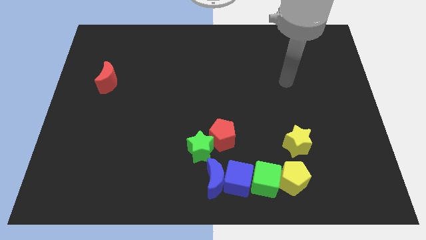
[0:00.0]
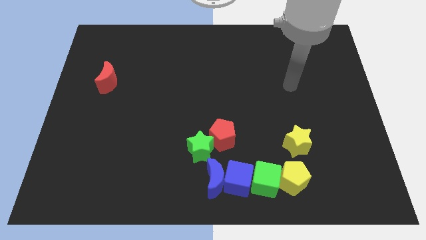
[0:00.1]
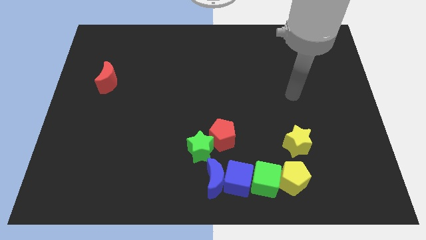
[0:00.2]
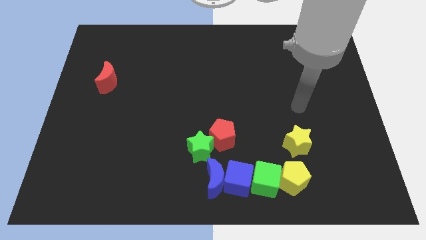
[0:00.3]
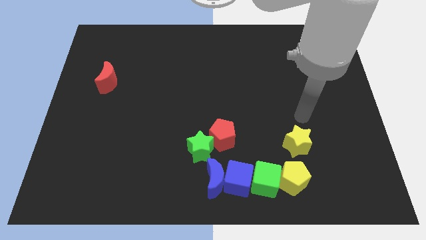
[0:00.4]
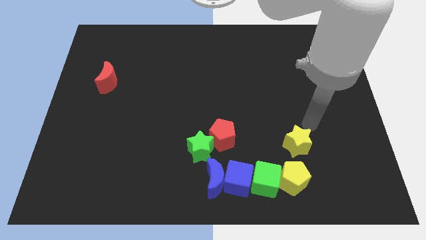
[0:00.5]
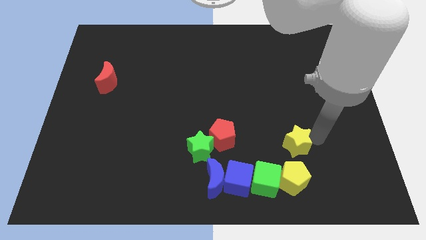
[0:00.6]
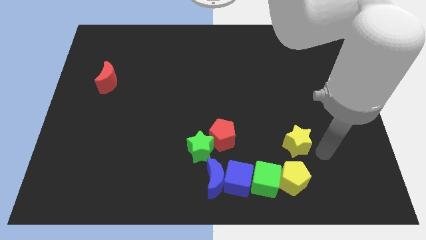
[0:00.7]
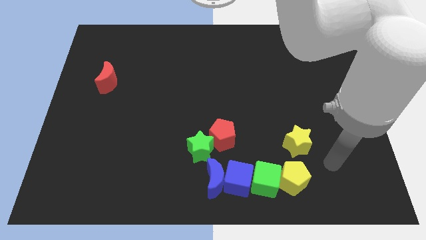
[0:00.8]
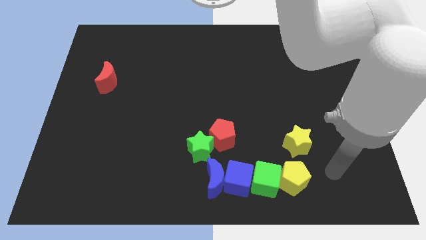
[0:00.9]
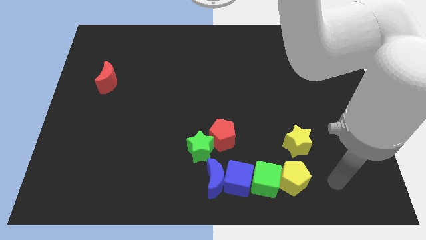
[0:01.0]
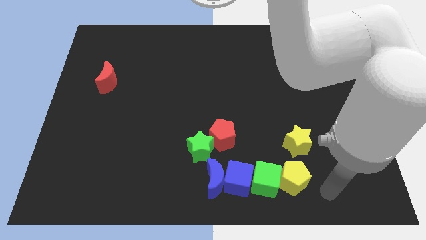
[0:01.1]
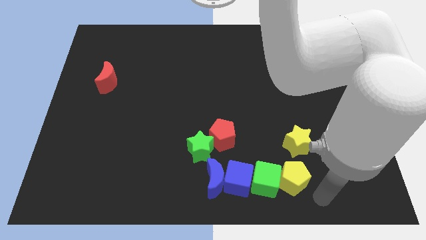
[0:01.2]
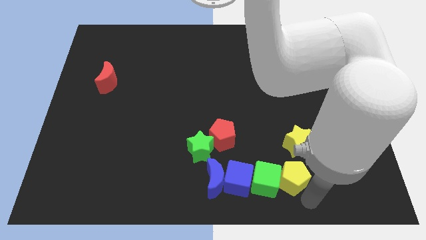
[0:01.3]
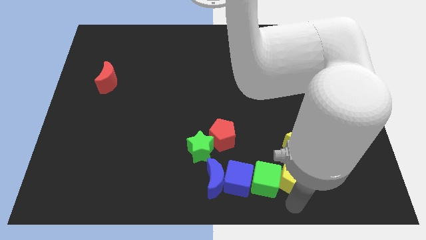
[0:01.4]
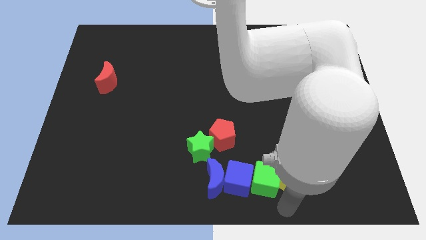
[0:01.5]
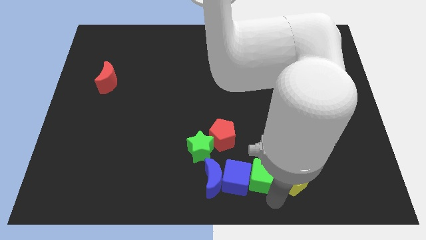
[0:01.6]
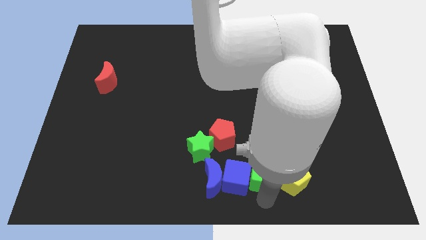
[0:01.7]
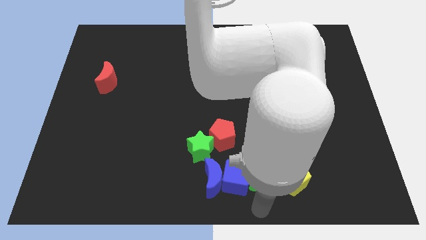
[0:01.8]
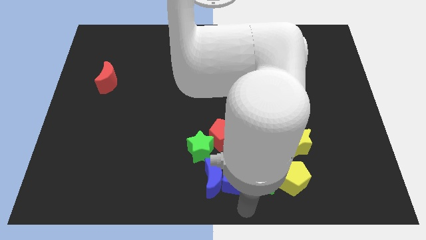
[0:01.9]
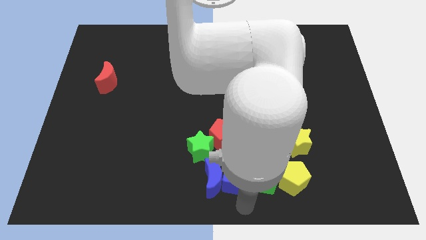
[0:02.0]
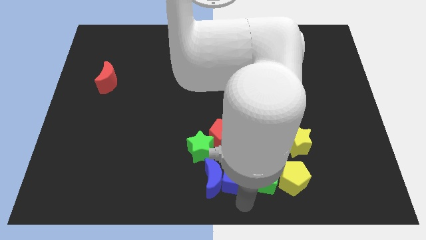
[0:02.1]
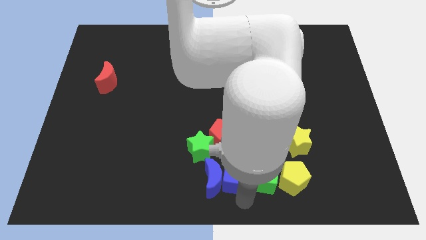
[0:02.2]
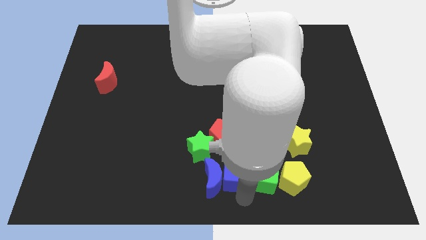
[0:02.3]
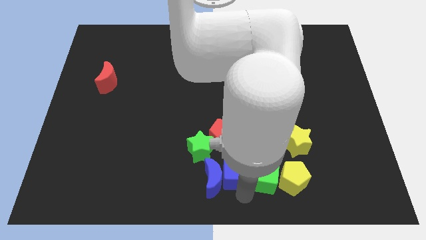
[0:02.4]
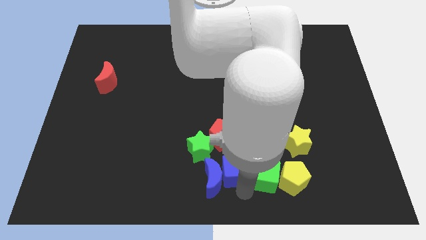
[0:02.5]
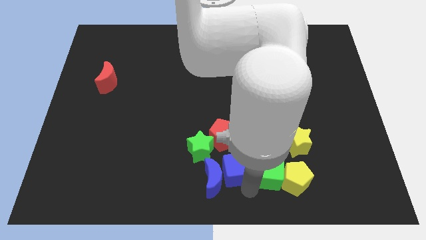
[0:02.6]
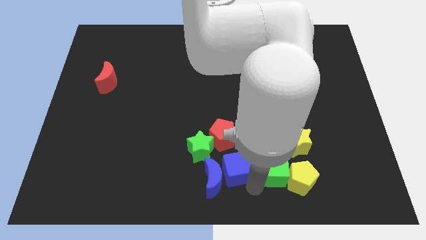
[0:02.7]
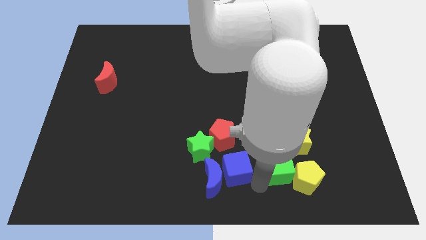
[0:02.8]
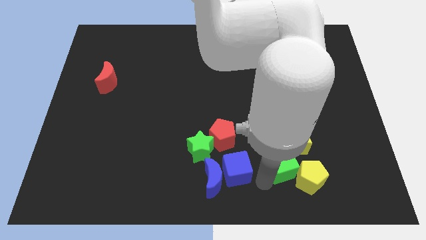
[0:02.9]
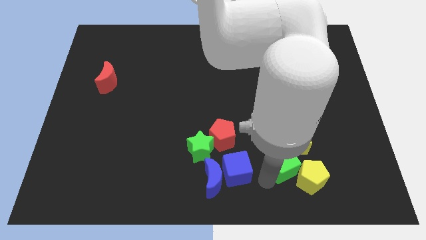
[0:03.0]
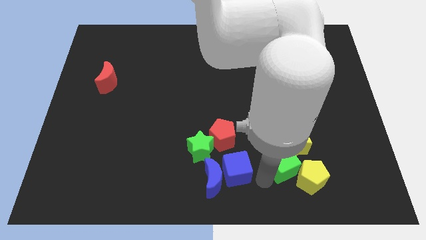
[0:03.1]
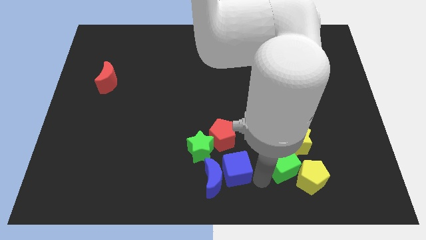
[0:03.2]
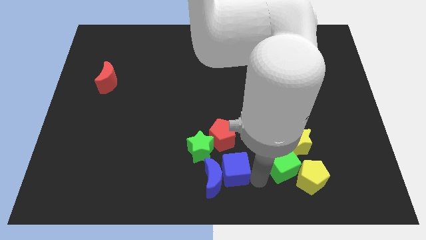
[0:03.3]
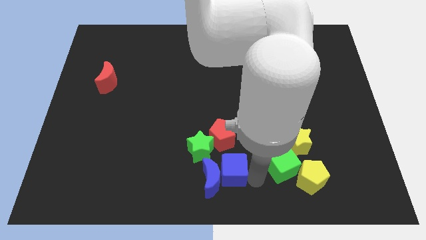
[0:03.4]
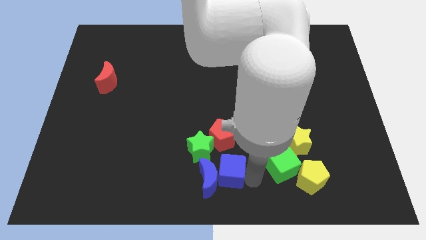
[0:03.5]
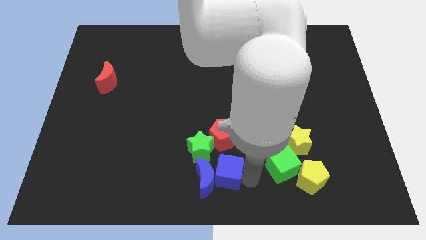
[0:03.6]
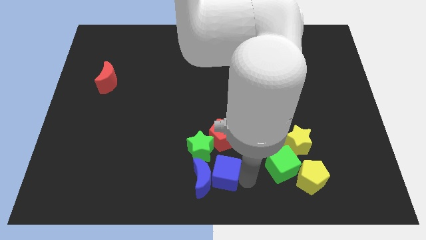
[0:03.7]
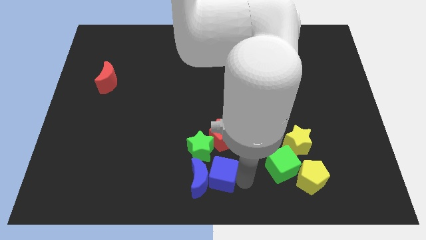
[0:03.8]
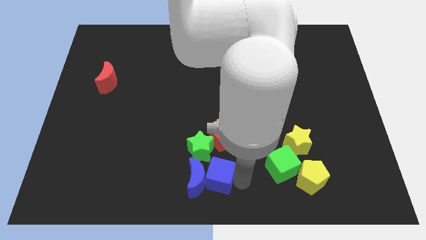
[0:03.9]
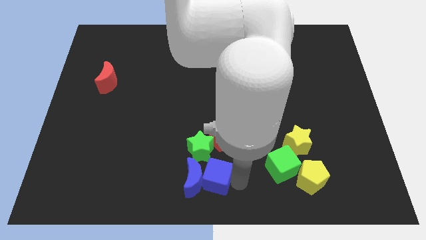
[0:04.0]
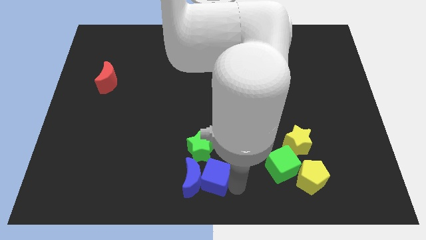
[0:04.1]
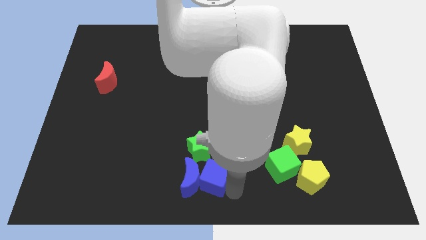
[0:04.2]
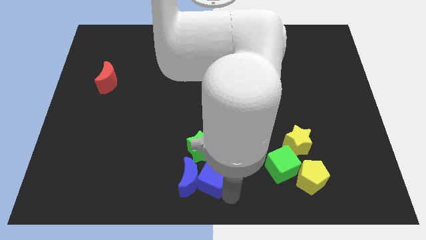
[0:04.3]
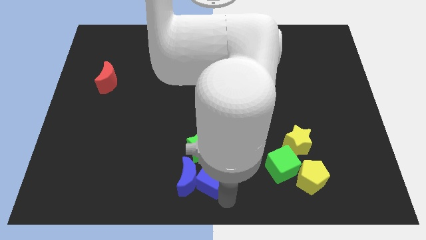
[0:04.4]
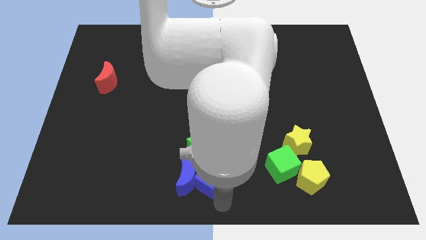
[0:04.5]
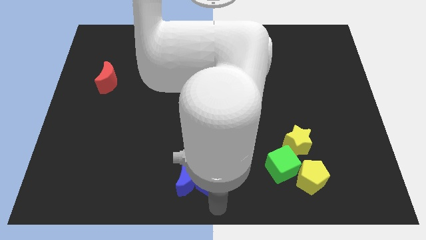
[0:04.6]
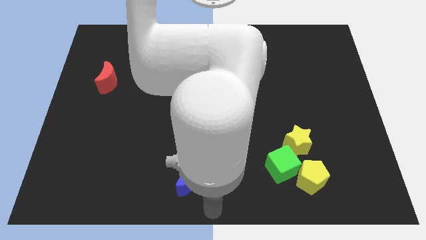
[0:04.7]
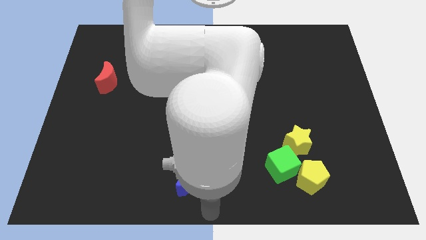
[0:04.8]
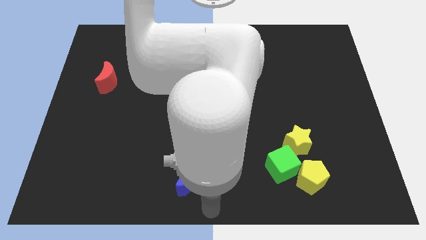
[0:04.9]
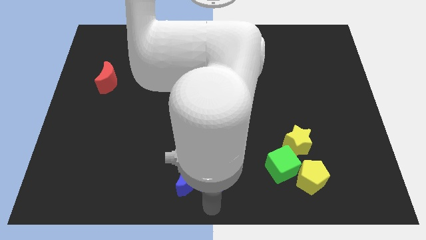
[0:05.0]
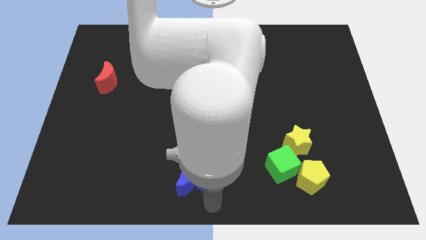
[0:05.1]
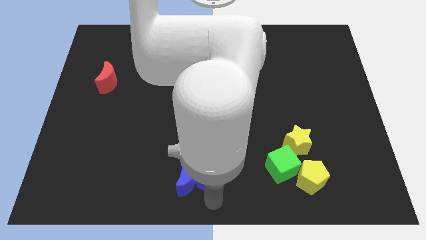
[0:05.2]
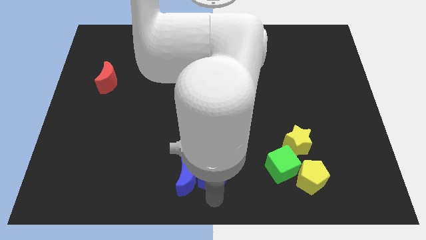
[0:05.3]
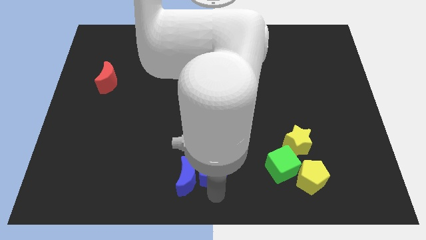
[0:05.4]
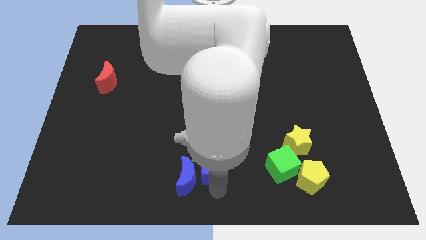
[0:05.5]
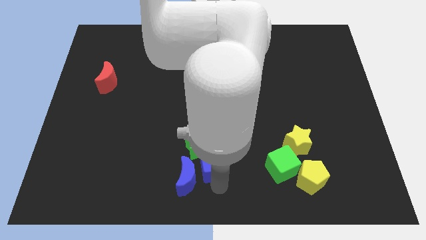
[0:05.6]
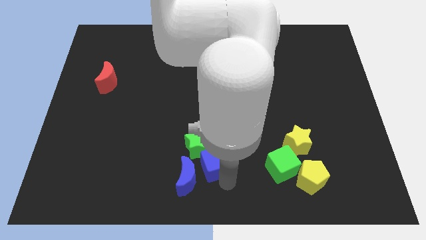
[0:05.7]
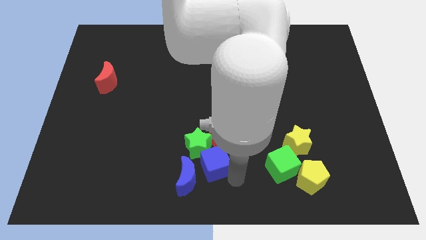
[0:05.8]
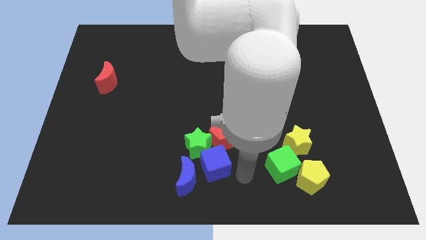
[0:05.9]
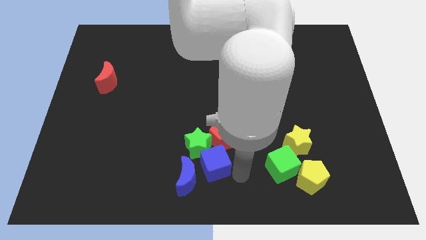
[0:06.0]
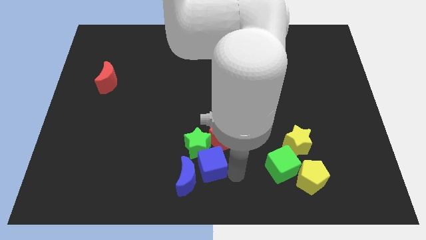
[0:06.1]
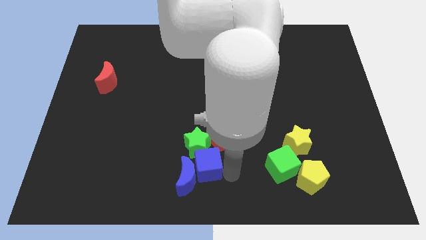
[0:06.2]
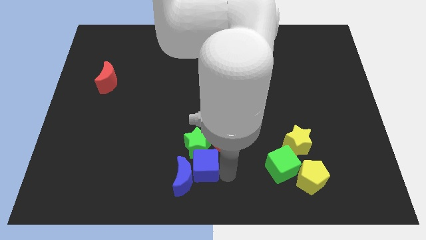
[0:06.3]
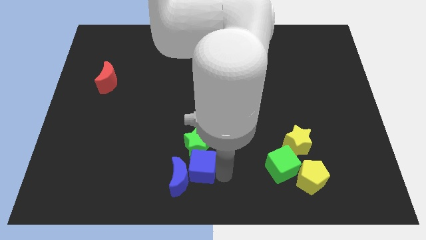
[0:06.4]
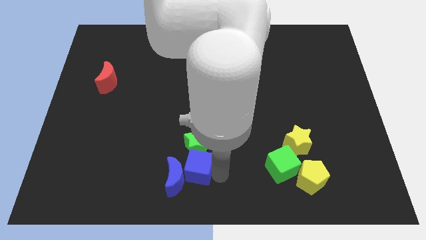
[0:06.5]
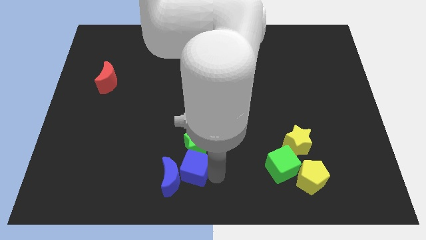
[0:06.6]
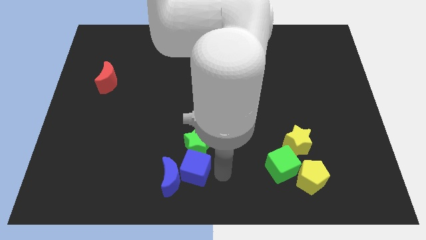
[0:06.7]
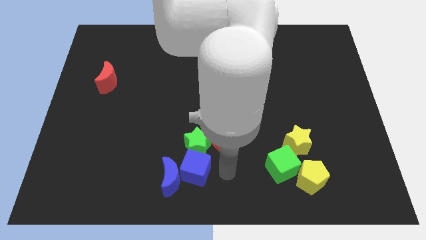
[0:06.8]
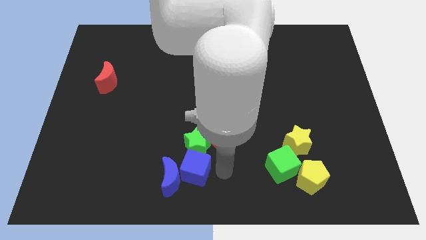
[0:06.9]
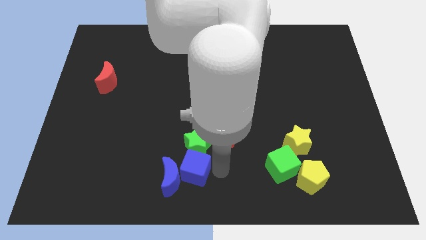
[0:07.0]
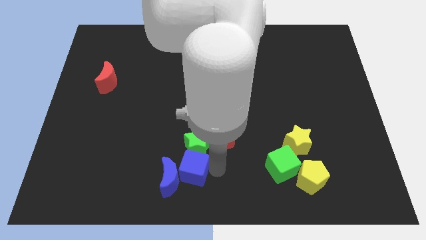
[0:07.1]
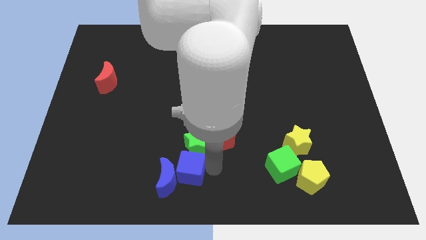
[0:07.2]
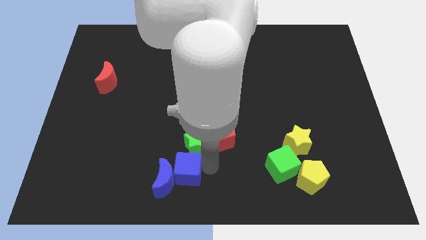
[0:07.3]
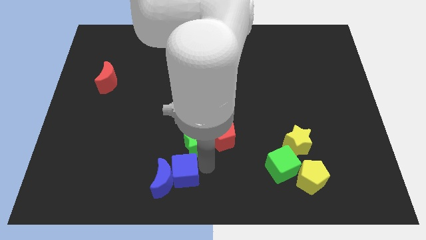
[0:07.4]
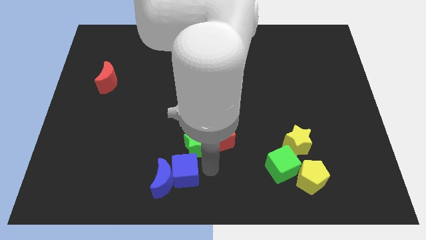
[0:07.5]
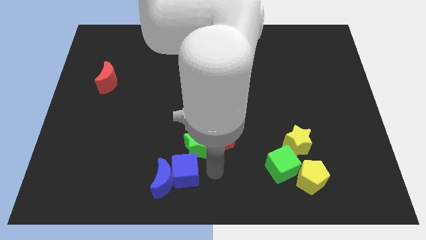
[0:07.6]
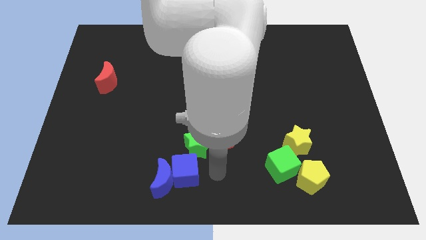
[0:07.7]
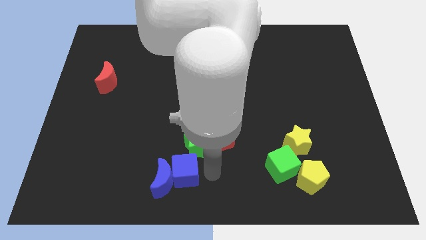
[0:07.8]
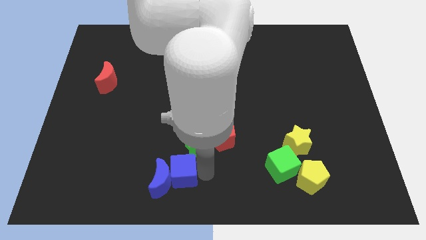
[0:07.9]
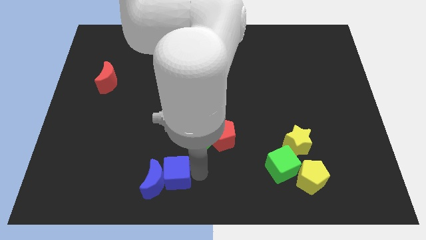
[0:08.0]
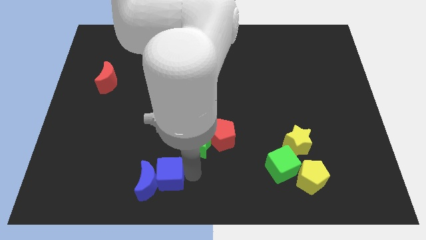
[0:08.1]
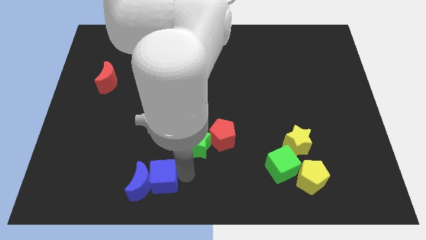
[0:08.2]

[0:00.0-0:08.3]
separate the blue cube from the blue moon and green cube

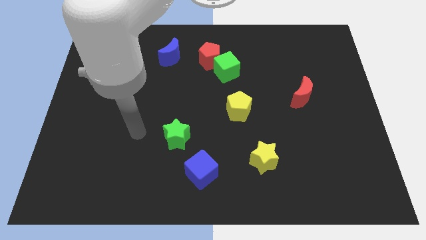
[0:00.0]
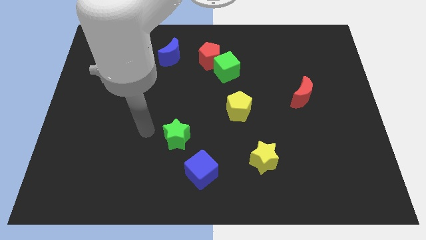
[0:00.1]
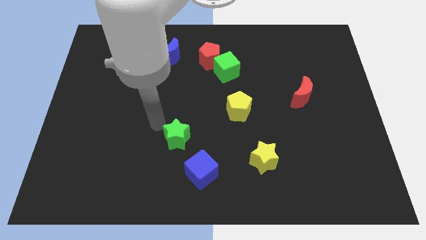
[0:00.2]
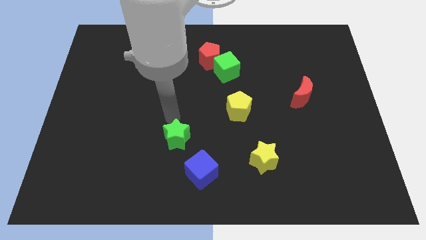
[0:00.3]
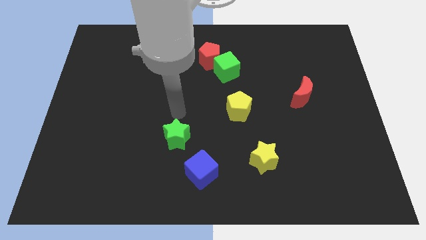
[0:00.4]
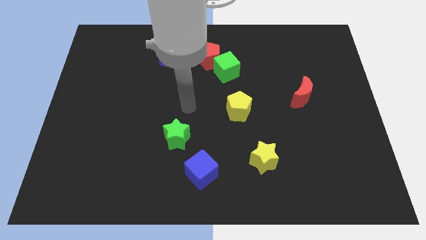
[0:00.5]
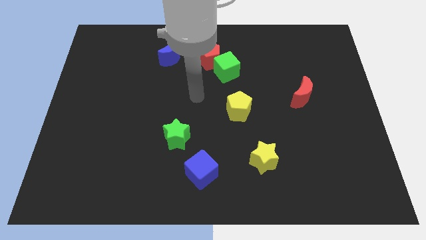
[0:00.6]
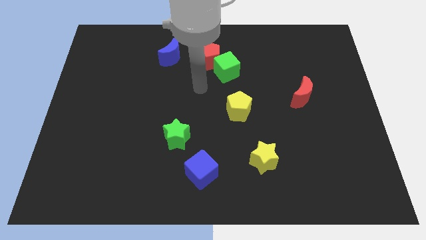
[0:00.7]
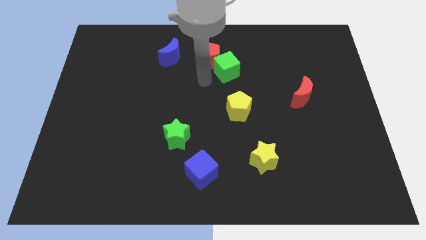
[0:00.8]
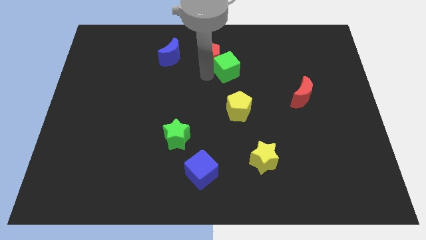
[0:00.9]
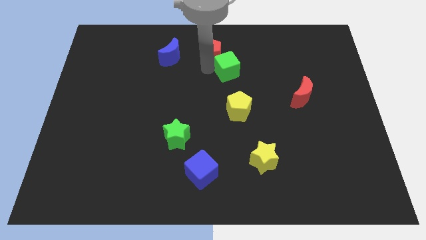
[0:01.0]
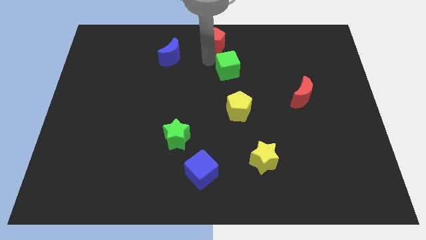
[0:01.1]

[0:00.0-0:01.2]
separate the green cube from the red pentagon
